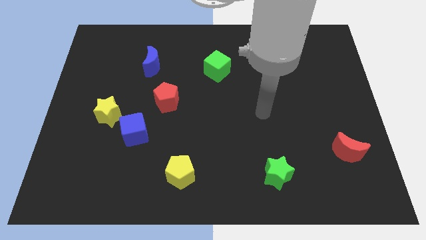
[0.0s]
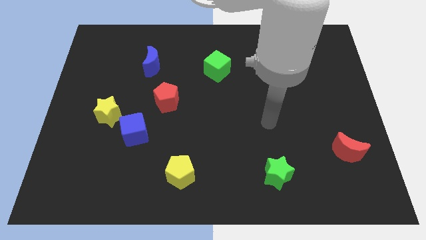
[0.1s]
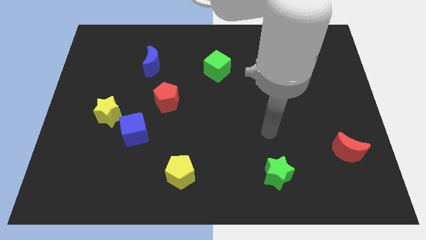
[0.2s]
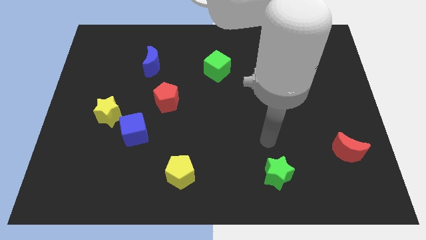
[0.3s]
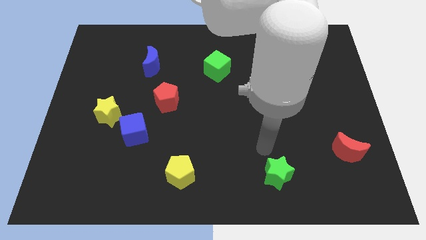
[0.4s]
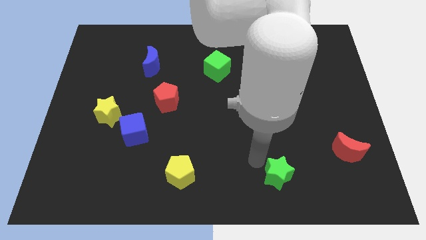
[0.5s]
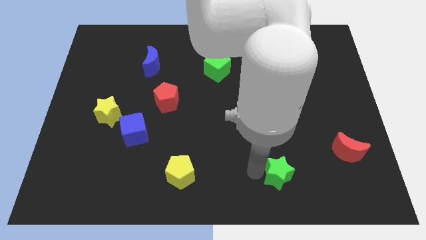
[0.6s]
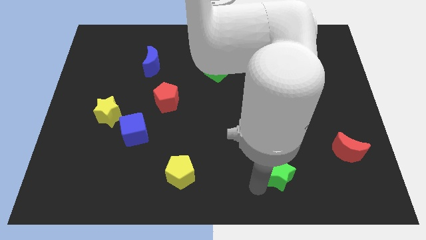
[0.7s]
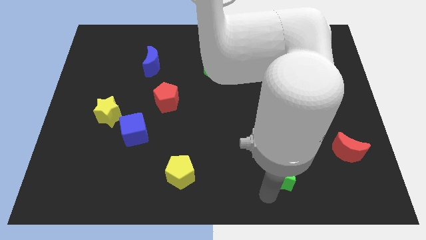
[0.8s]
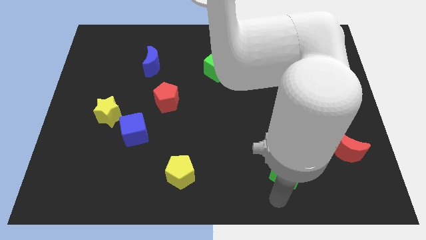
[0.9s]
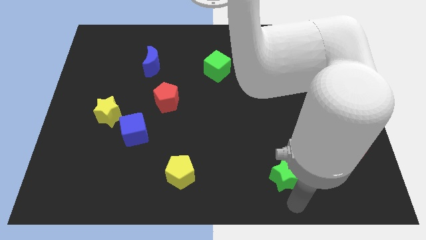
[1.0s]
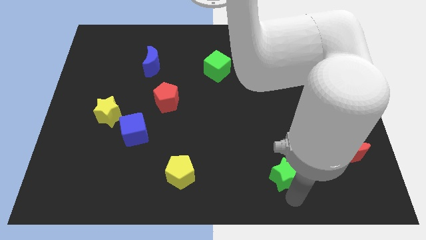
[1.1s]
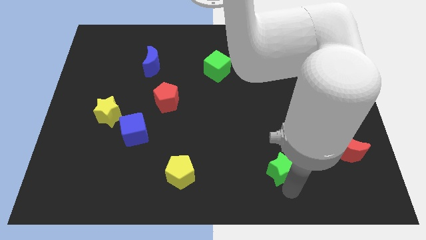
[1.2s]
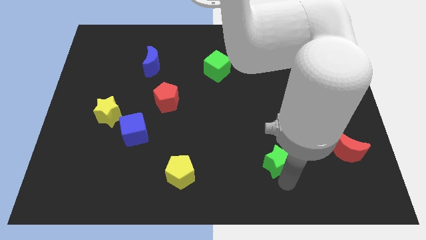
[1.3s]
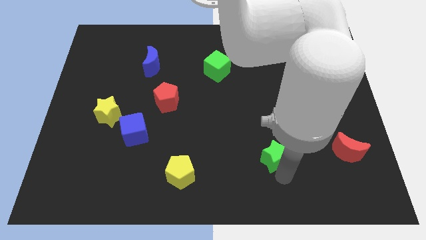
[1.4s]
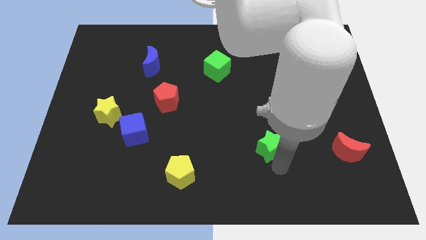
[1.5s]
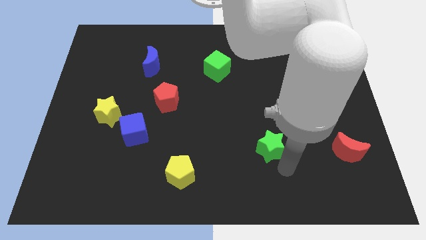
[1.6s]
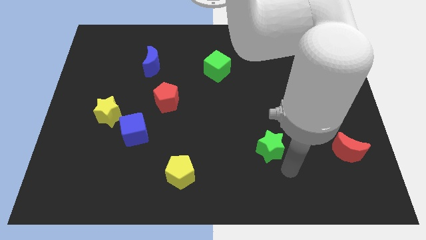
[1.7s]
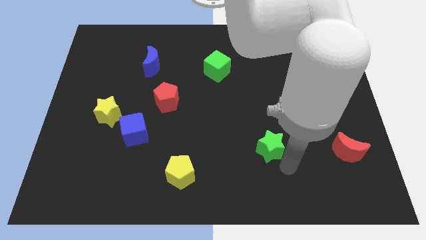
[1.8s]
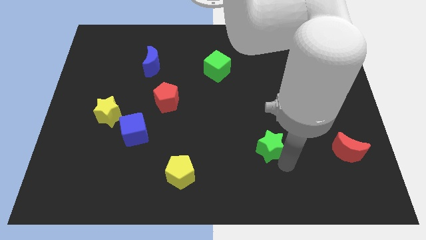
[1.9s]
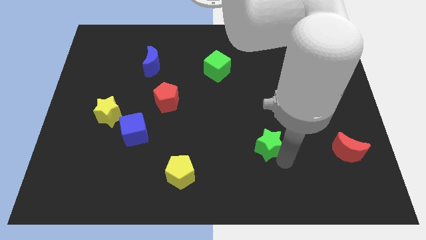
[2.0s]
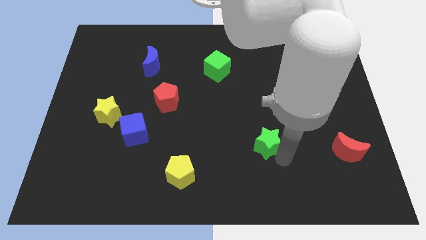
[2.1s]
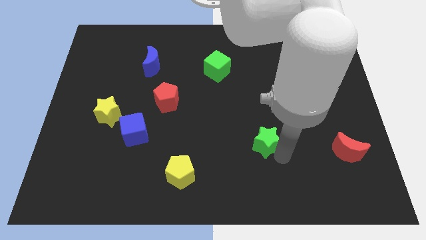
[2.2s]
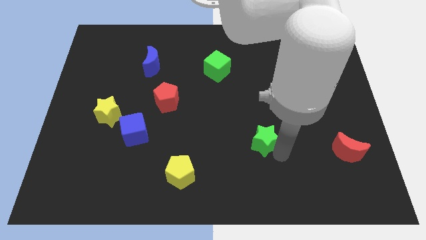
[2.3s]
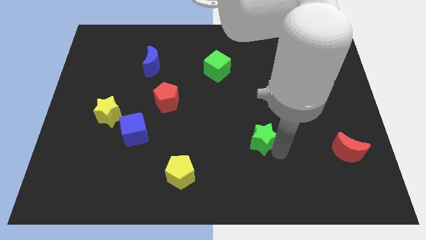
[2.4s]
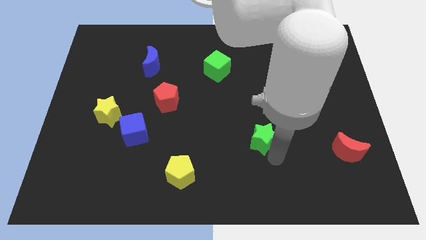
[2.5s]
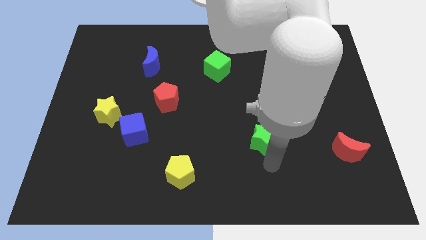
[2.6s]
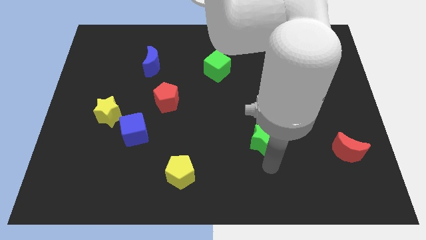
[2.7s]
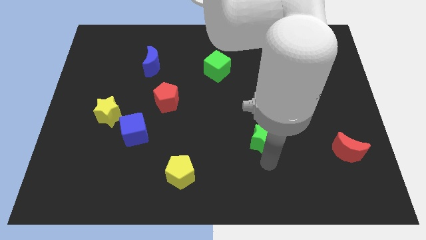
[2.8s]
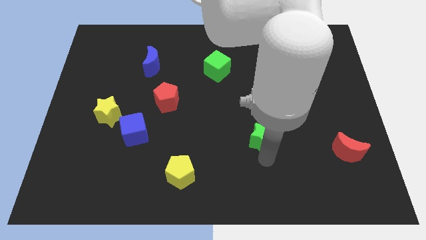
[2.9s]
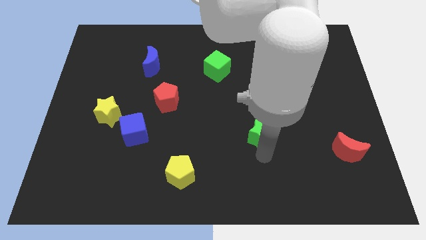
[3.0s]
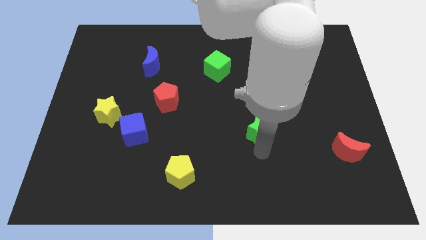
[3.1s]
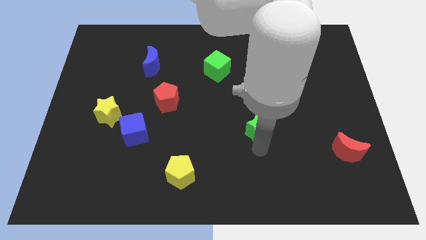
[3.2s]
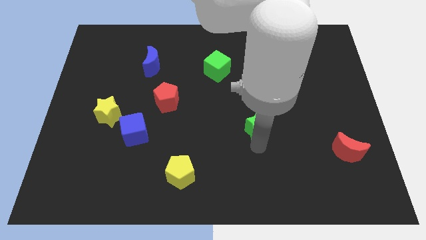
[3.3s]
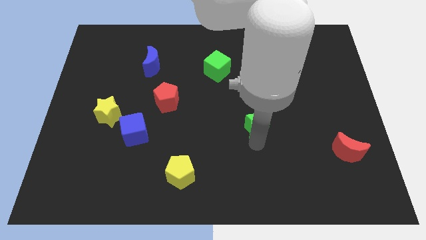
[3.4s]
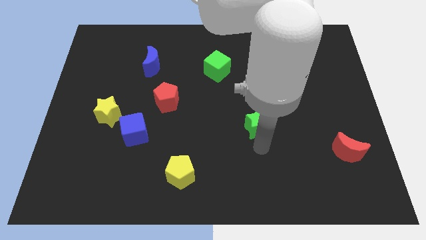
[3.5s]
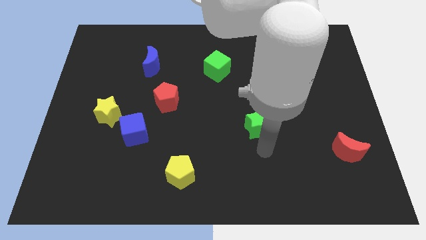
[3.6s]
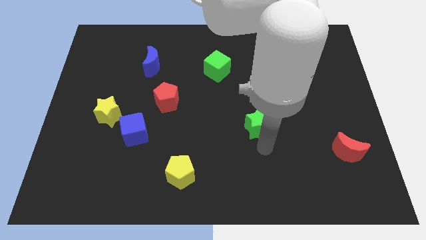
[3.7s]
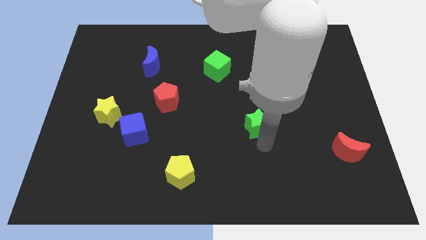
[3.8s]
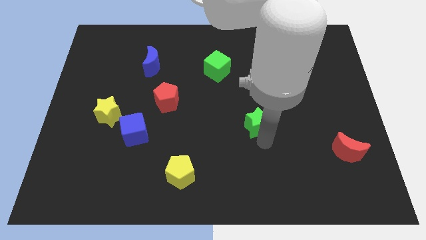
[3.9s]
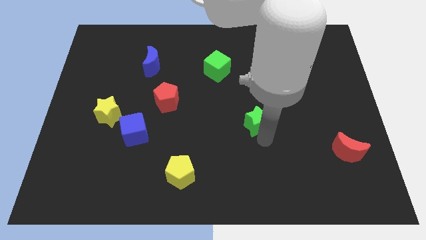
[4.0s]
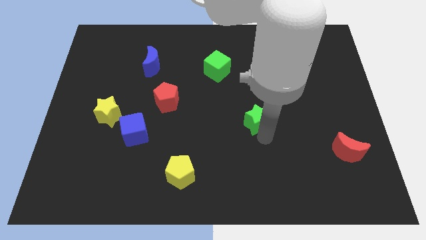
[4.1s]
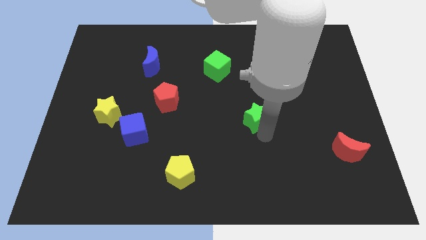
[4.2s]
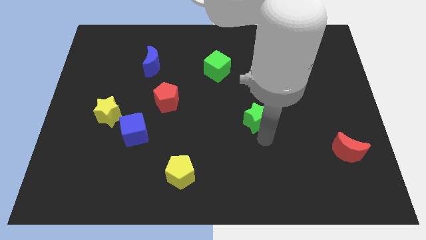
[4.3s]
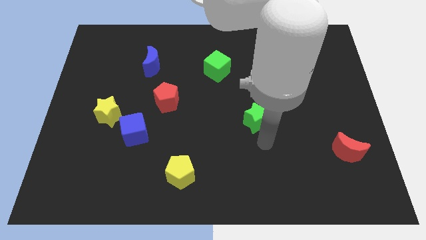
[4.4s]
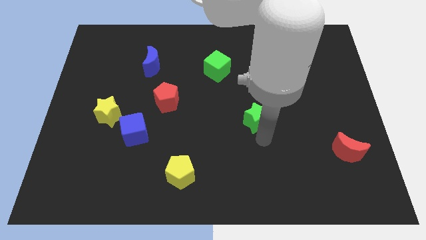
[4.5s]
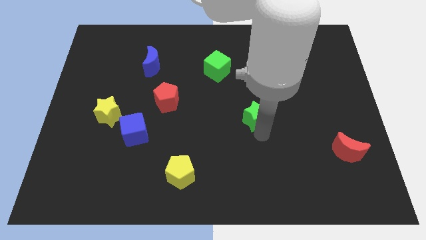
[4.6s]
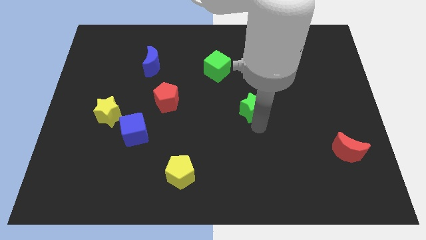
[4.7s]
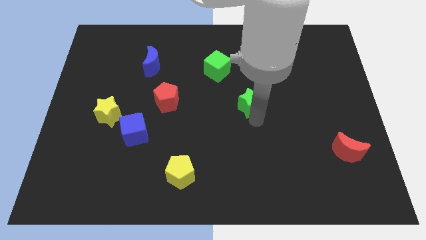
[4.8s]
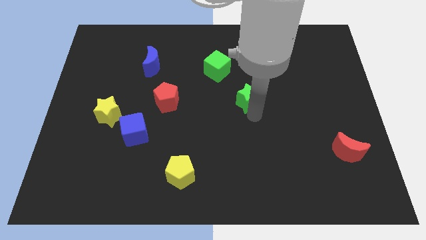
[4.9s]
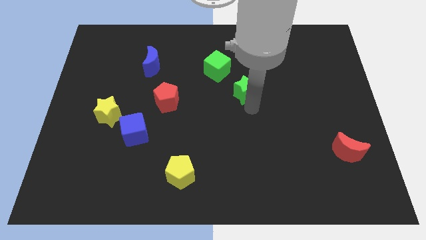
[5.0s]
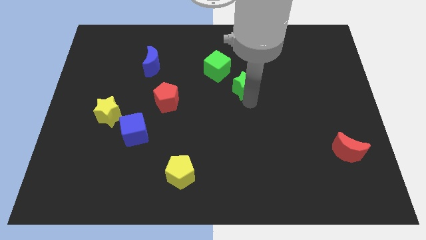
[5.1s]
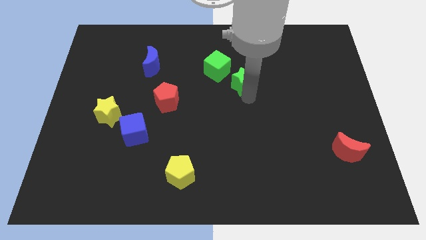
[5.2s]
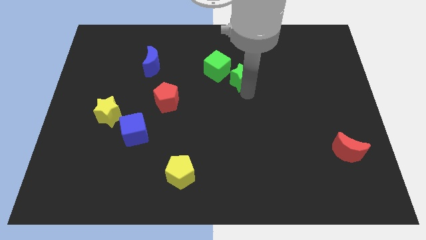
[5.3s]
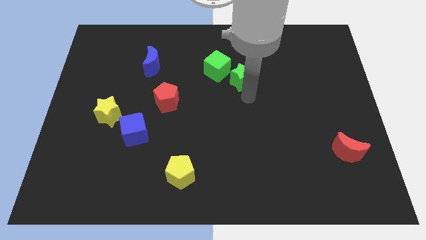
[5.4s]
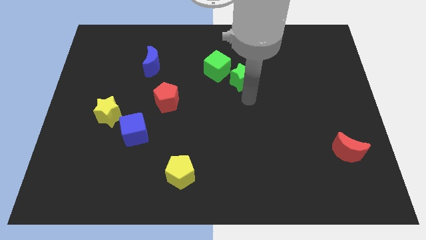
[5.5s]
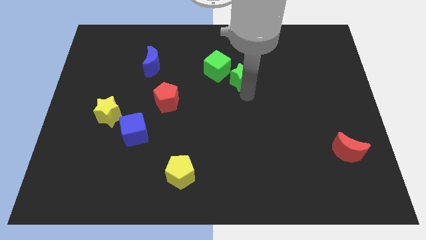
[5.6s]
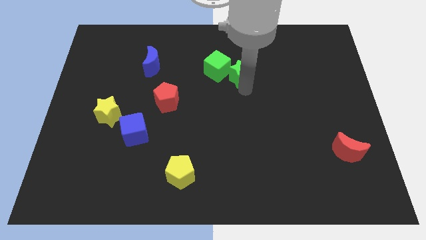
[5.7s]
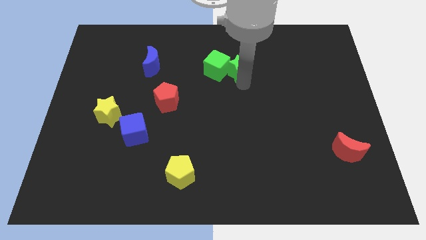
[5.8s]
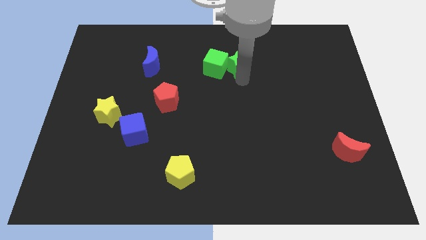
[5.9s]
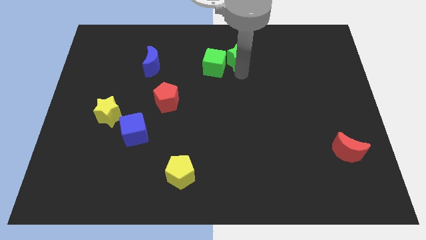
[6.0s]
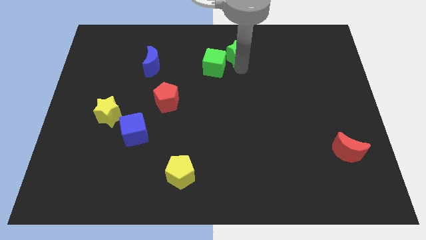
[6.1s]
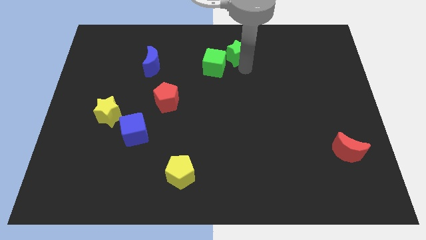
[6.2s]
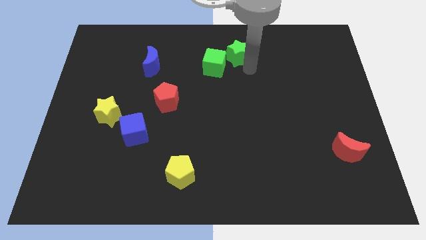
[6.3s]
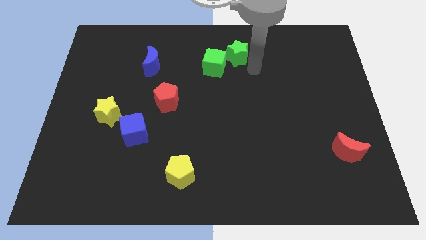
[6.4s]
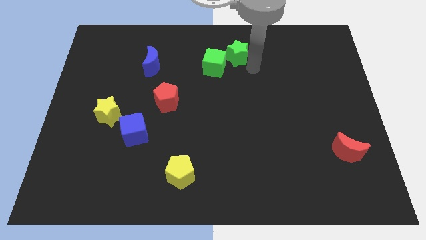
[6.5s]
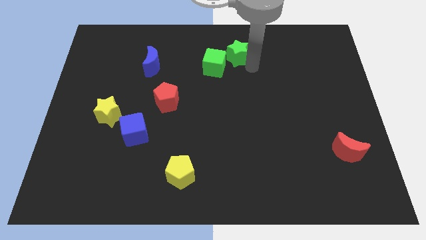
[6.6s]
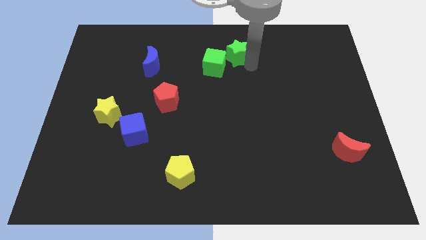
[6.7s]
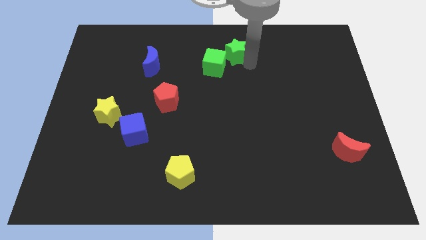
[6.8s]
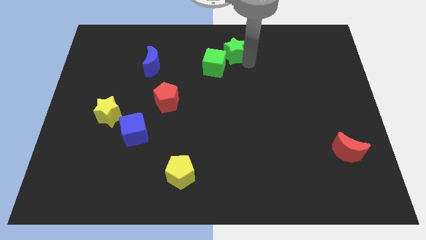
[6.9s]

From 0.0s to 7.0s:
put the green star to the top side

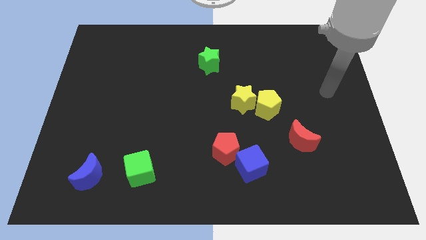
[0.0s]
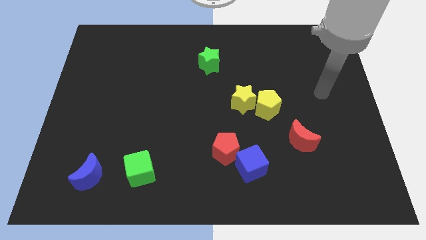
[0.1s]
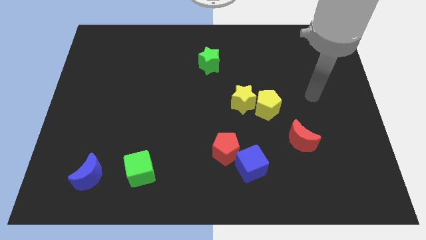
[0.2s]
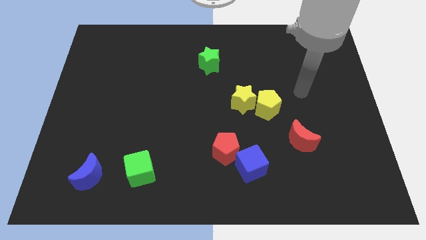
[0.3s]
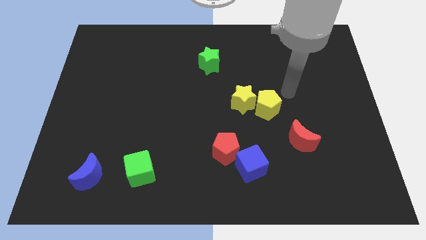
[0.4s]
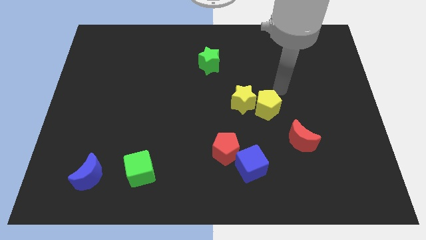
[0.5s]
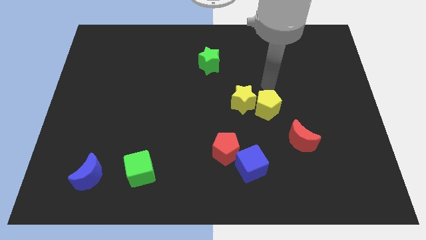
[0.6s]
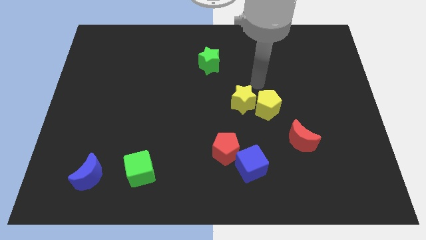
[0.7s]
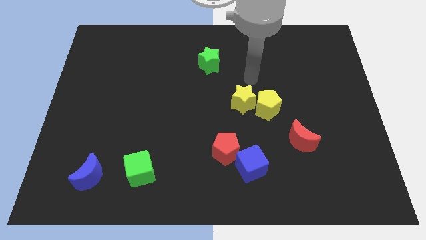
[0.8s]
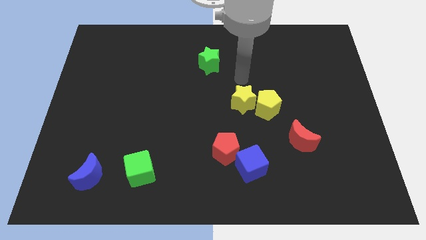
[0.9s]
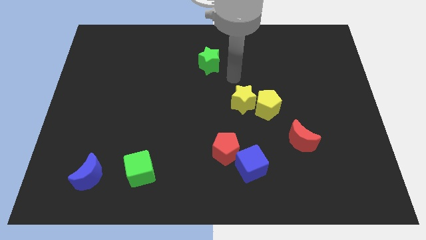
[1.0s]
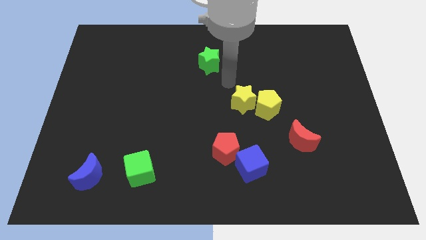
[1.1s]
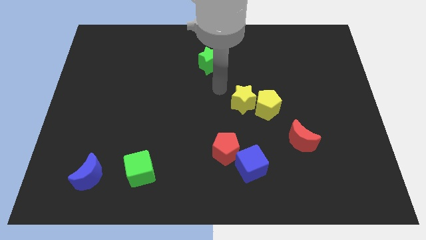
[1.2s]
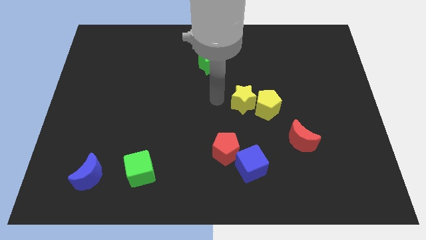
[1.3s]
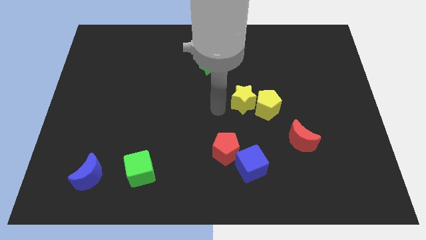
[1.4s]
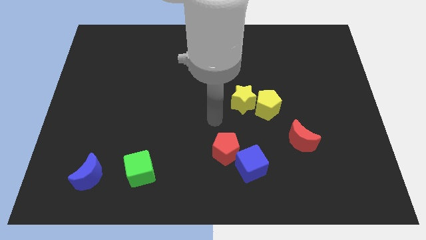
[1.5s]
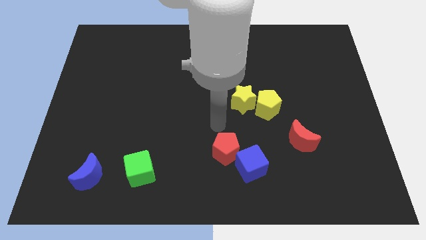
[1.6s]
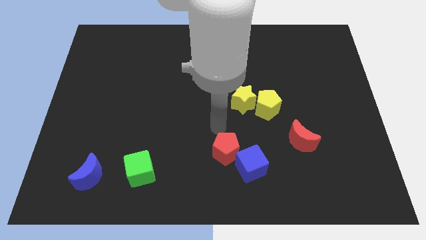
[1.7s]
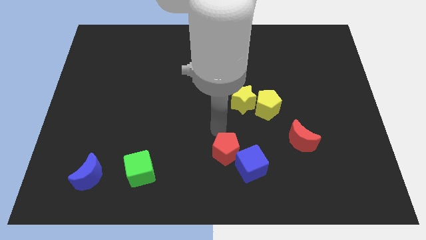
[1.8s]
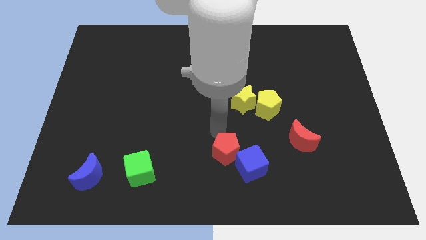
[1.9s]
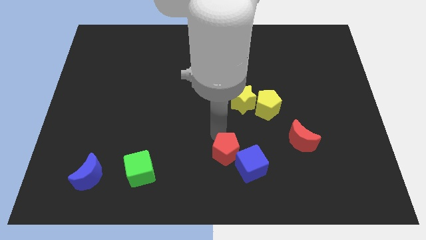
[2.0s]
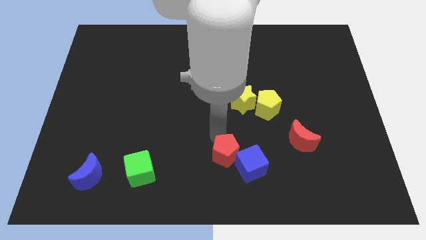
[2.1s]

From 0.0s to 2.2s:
push the red pentagon to the bottom side
